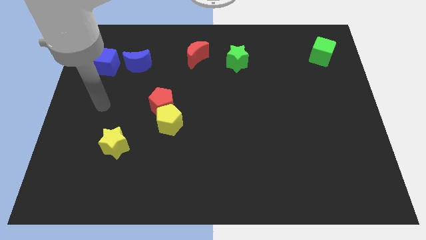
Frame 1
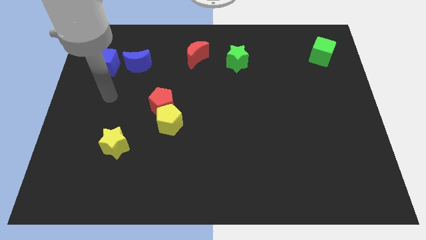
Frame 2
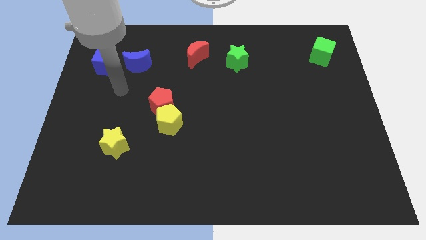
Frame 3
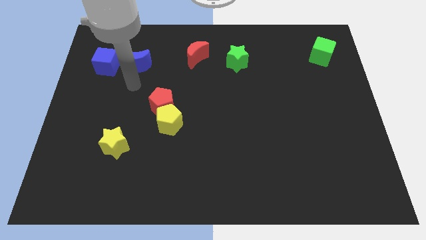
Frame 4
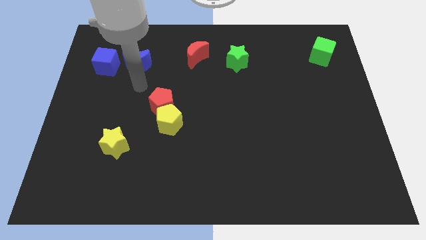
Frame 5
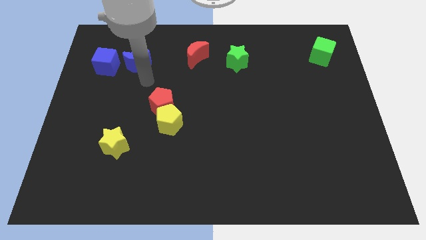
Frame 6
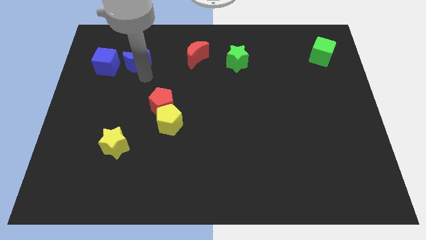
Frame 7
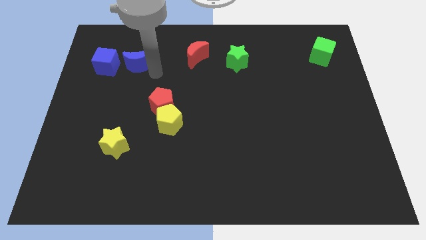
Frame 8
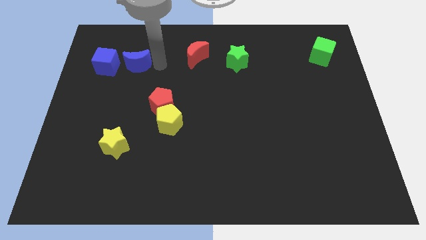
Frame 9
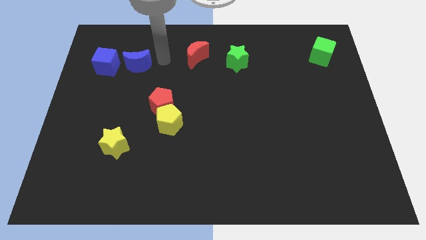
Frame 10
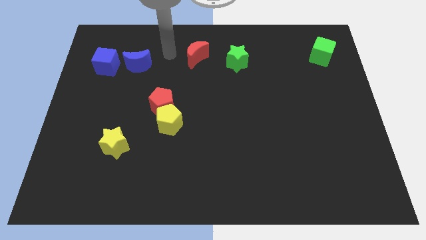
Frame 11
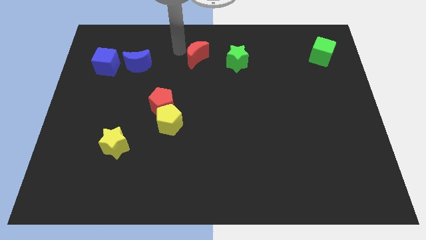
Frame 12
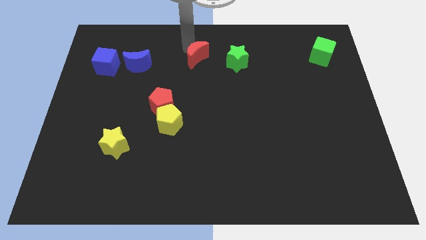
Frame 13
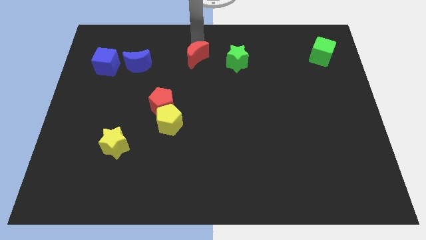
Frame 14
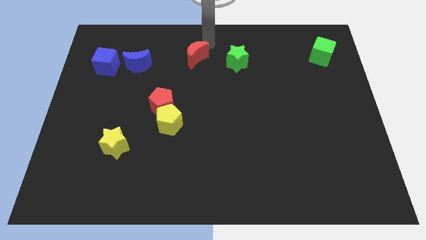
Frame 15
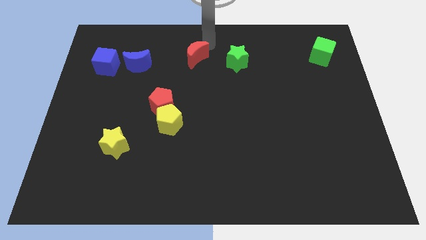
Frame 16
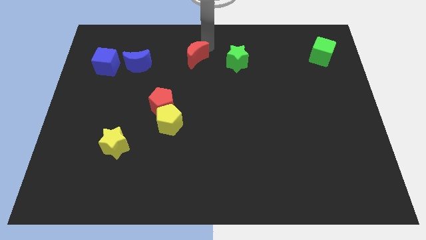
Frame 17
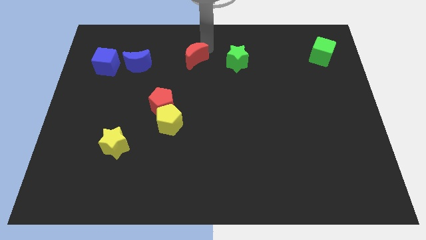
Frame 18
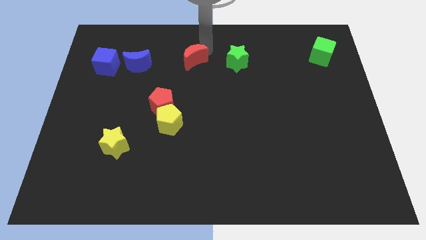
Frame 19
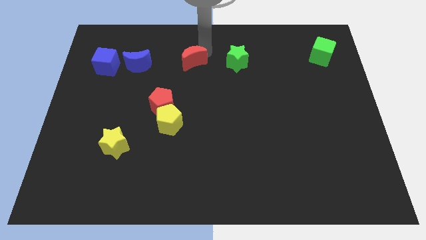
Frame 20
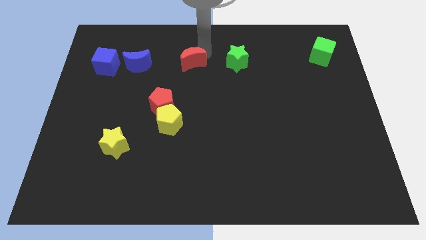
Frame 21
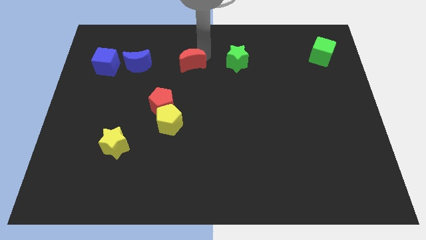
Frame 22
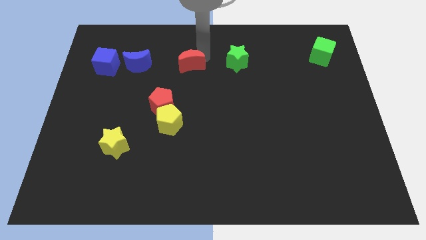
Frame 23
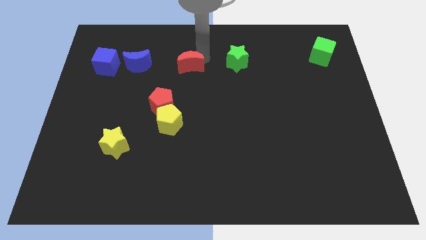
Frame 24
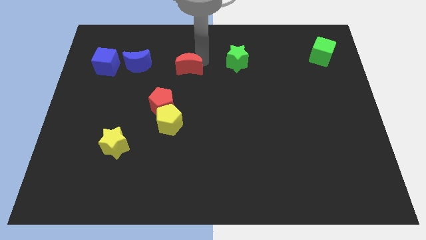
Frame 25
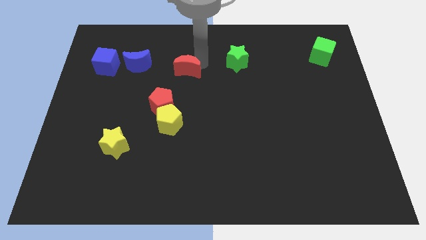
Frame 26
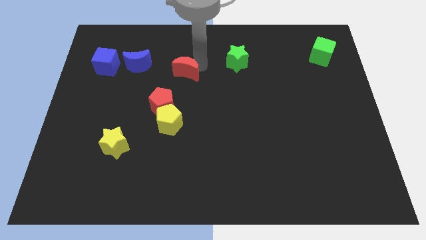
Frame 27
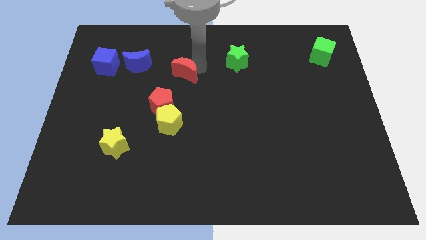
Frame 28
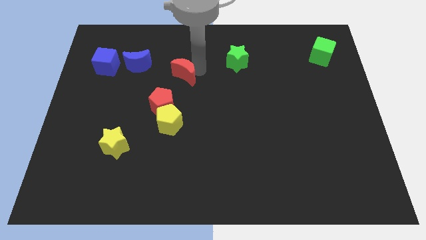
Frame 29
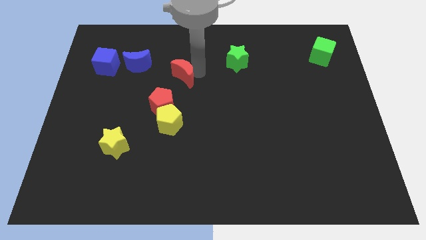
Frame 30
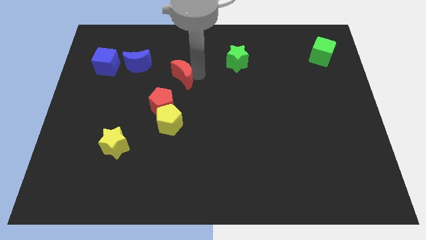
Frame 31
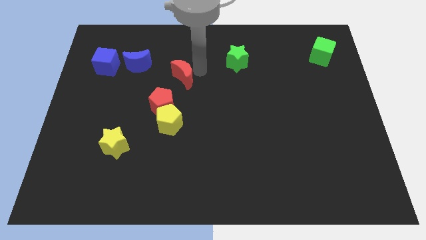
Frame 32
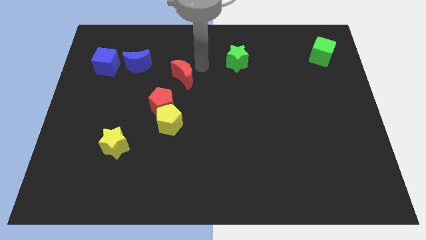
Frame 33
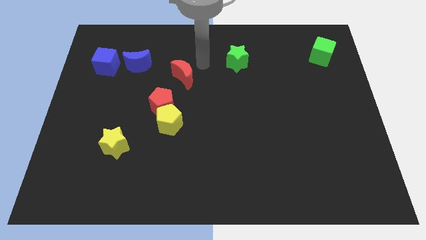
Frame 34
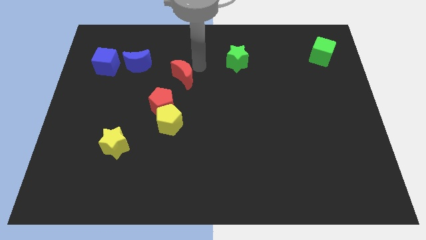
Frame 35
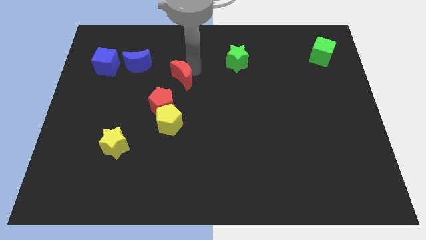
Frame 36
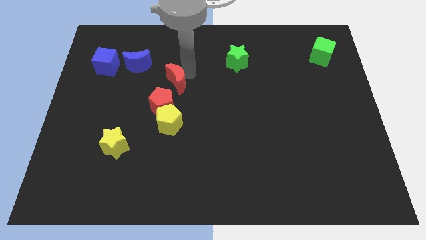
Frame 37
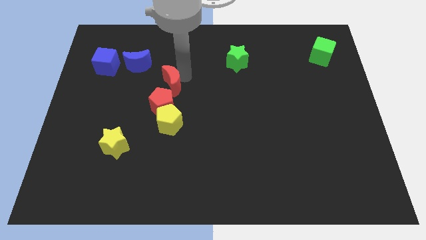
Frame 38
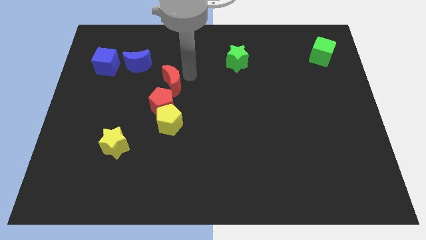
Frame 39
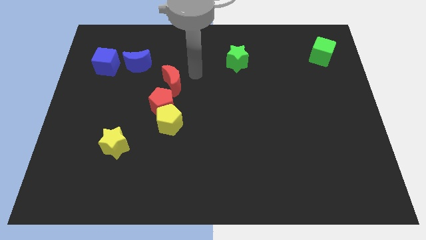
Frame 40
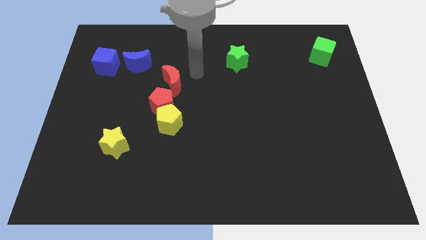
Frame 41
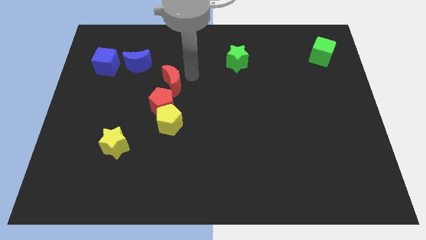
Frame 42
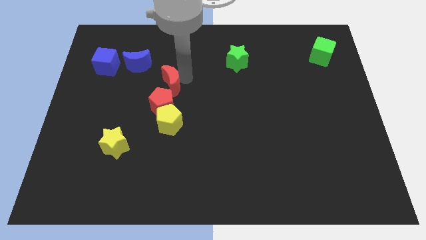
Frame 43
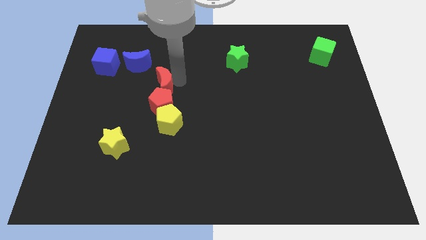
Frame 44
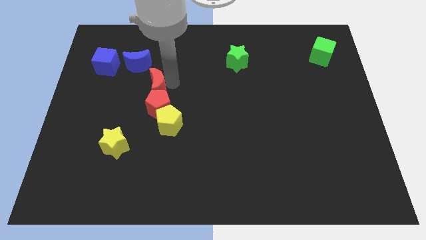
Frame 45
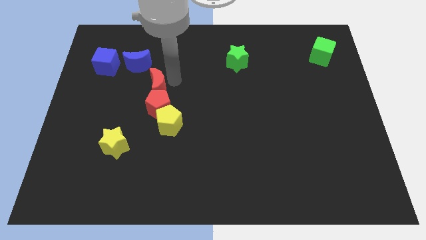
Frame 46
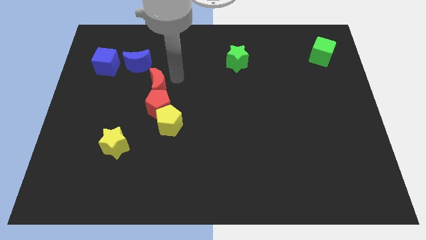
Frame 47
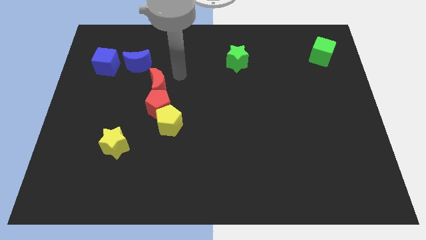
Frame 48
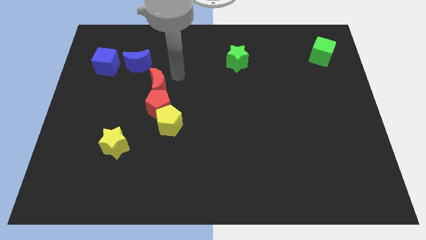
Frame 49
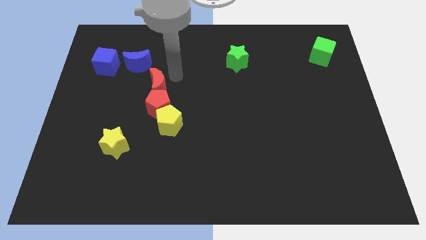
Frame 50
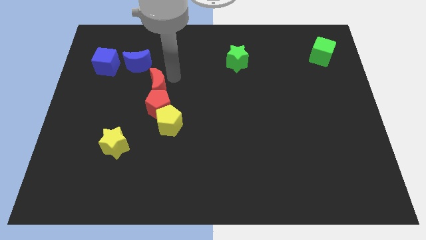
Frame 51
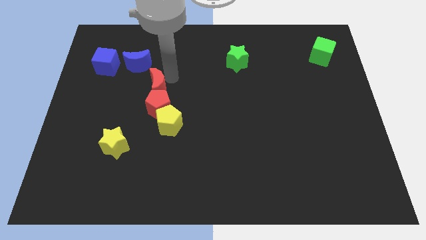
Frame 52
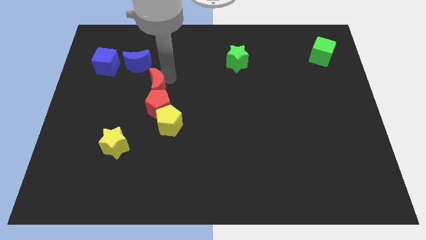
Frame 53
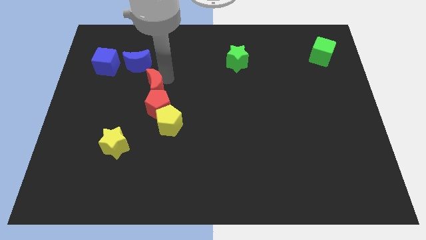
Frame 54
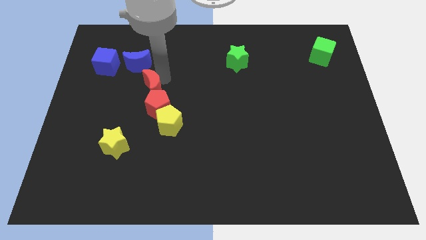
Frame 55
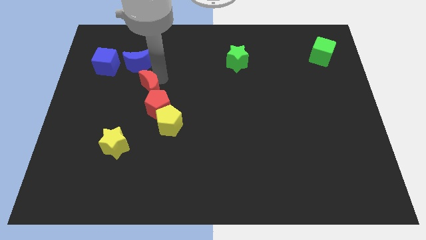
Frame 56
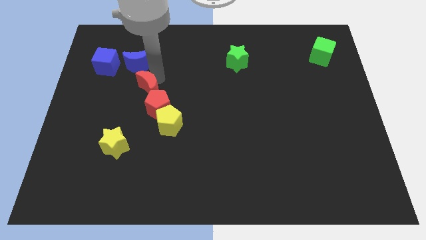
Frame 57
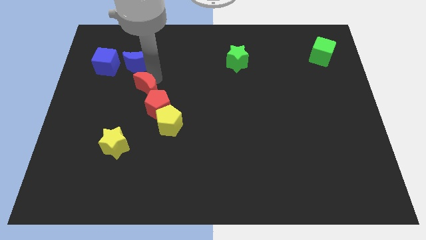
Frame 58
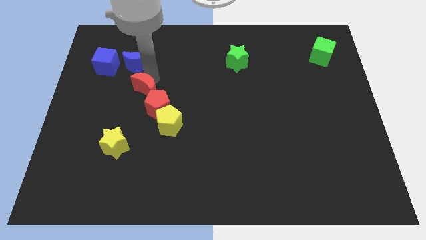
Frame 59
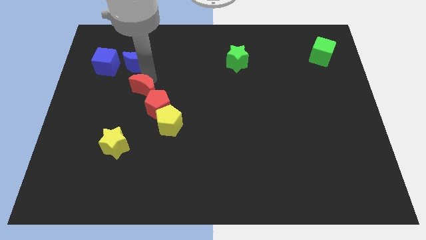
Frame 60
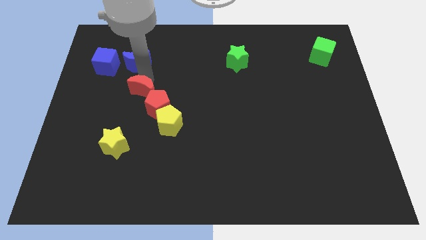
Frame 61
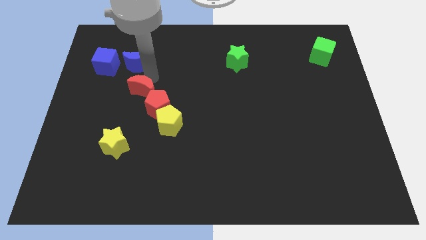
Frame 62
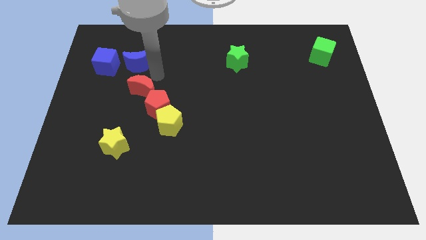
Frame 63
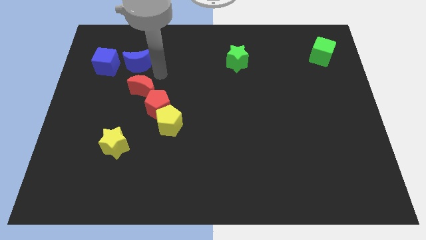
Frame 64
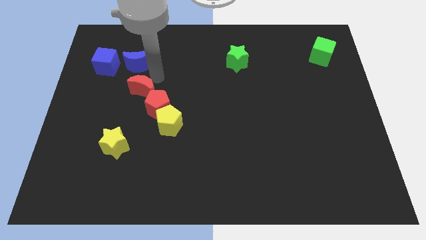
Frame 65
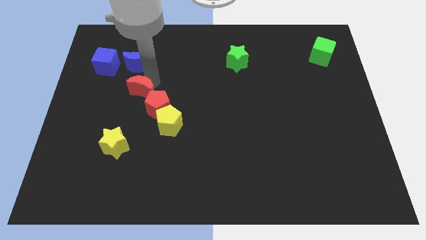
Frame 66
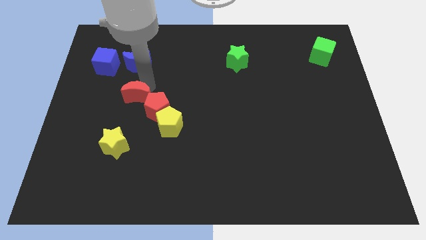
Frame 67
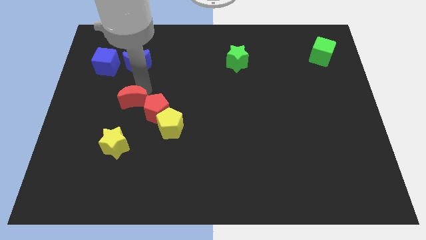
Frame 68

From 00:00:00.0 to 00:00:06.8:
slide the red moon down and to the left diagonally

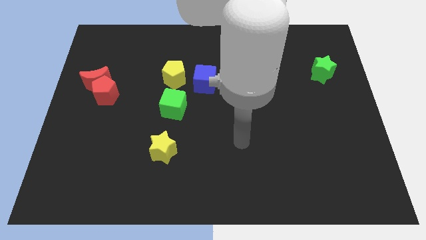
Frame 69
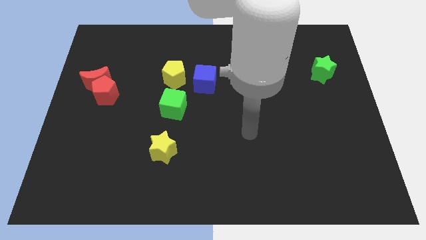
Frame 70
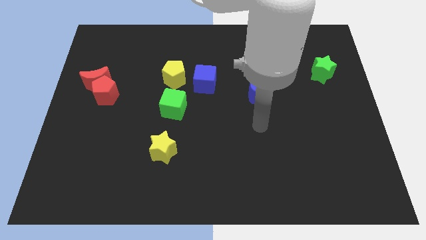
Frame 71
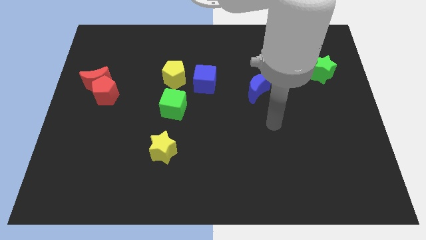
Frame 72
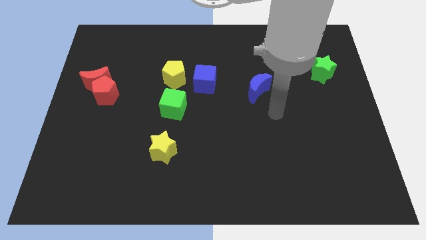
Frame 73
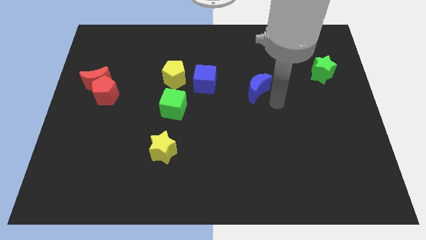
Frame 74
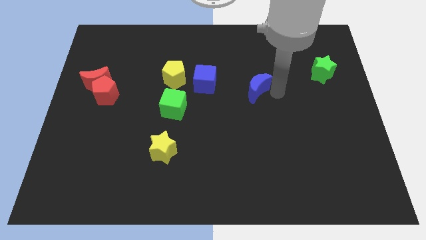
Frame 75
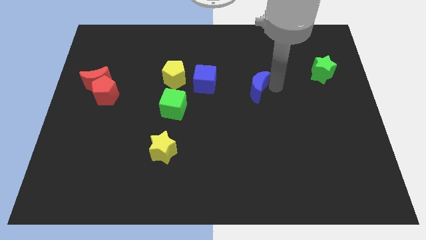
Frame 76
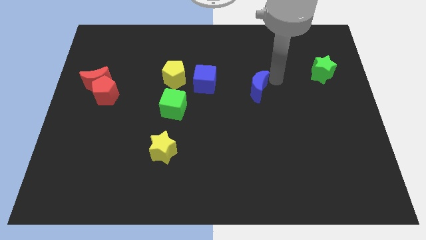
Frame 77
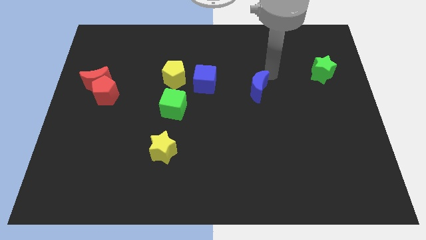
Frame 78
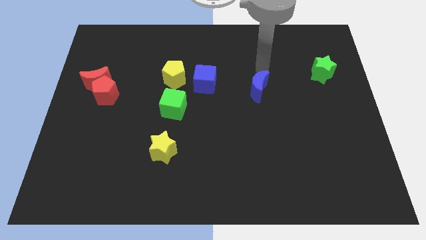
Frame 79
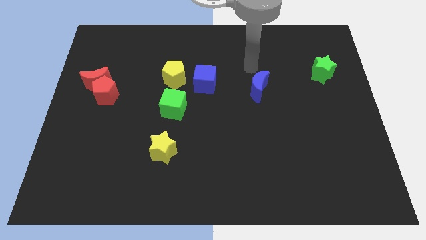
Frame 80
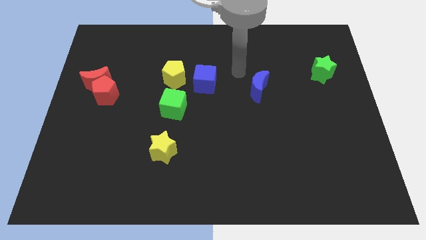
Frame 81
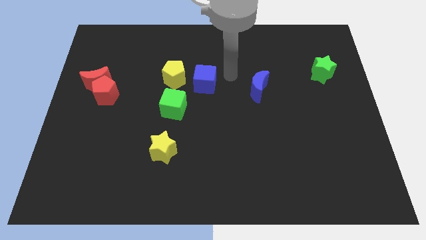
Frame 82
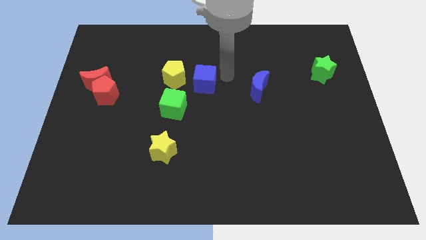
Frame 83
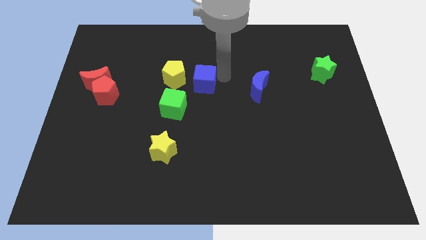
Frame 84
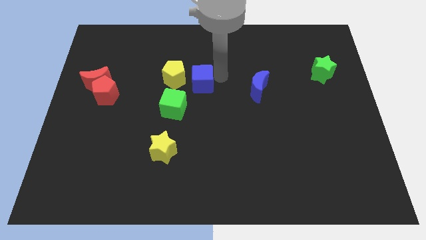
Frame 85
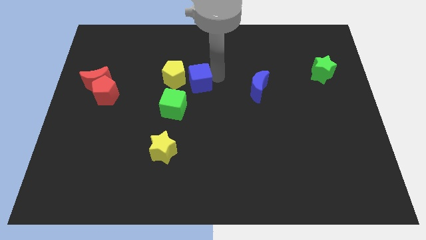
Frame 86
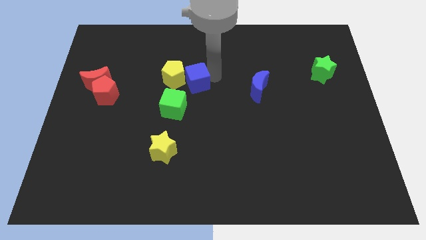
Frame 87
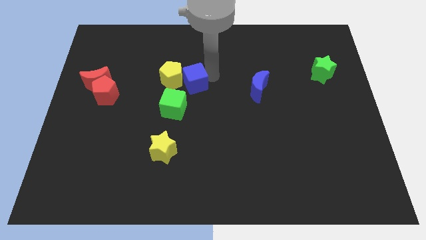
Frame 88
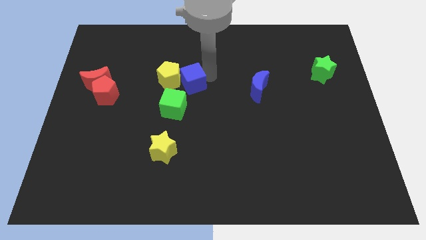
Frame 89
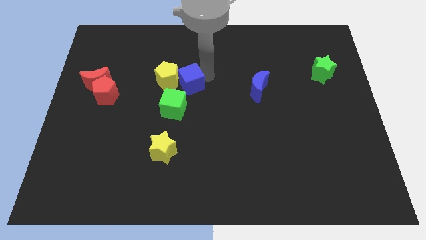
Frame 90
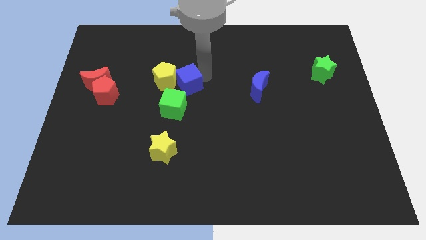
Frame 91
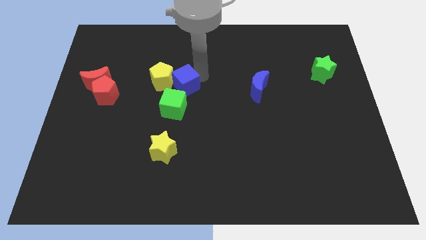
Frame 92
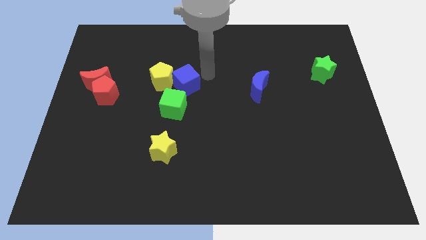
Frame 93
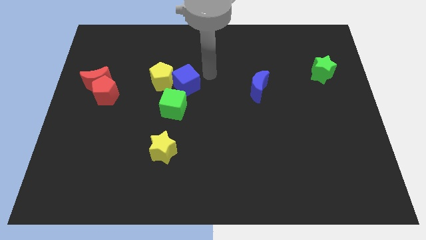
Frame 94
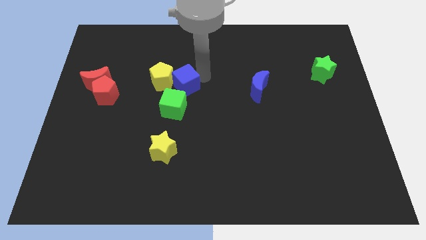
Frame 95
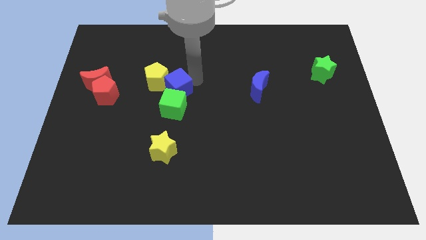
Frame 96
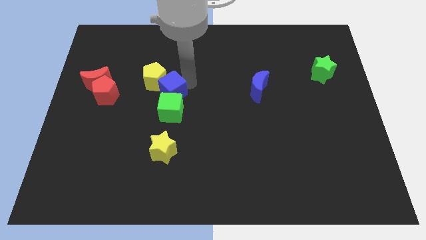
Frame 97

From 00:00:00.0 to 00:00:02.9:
slide the blue cube downwards and to the left a bit
